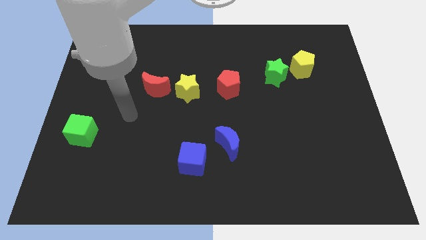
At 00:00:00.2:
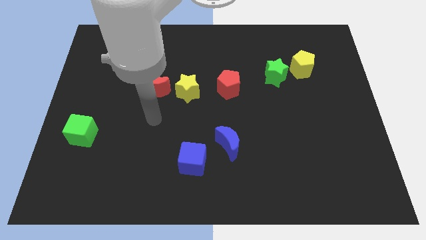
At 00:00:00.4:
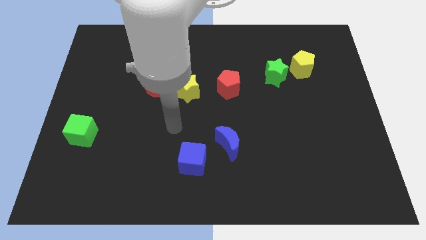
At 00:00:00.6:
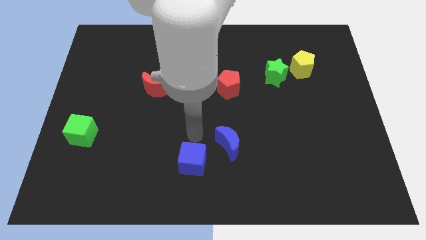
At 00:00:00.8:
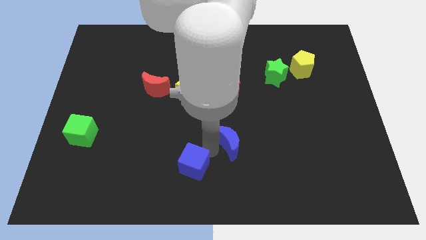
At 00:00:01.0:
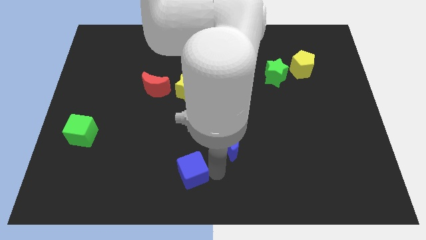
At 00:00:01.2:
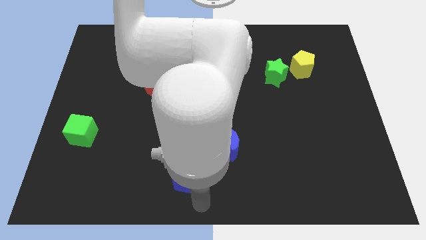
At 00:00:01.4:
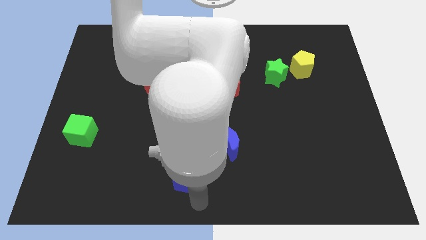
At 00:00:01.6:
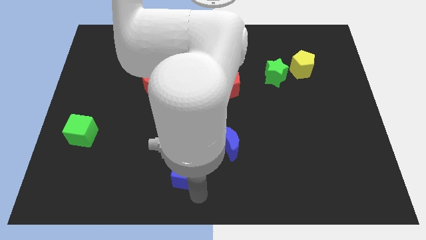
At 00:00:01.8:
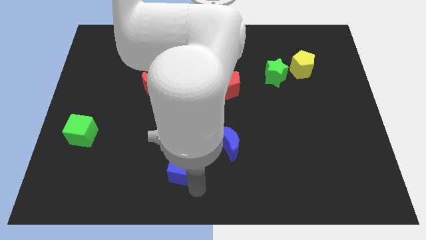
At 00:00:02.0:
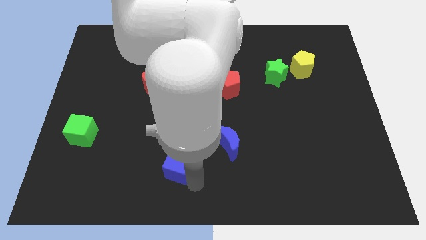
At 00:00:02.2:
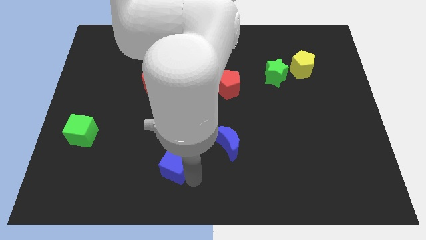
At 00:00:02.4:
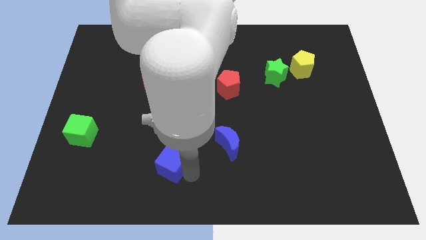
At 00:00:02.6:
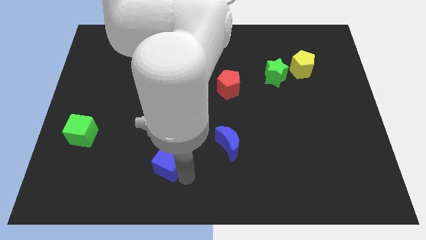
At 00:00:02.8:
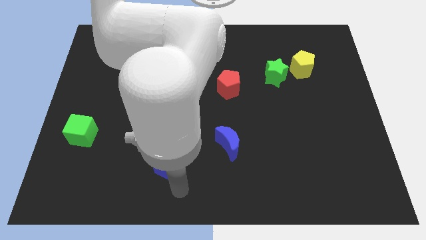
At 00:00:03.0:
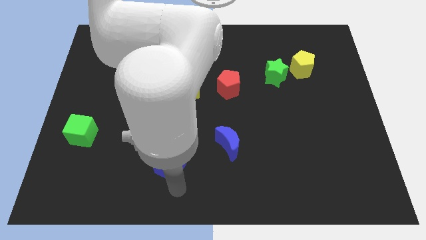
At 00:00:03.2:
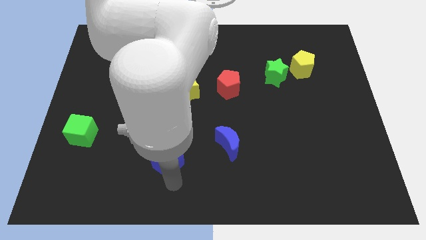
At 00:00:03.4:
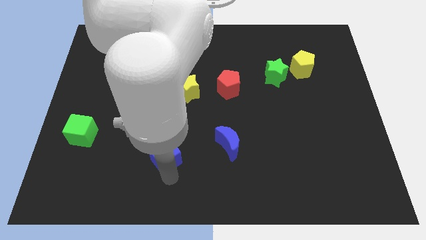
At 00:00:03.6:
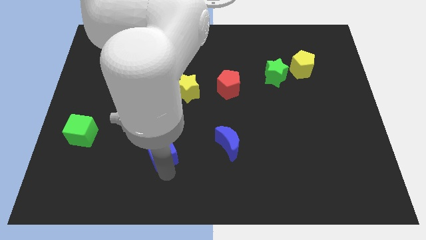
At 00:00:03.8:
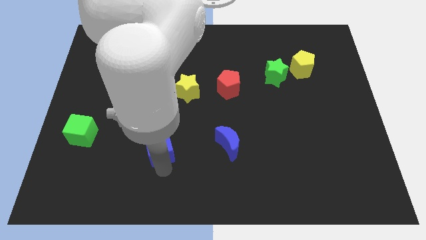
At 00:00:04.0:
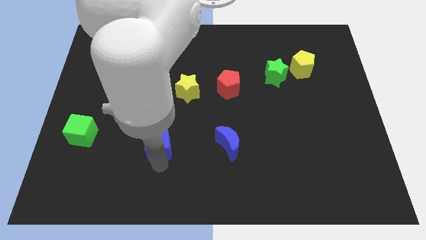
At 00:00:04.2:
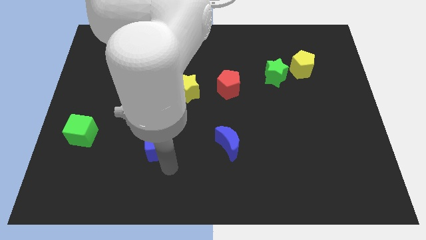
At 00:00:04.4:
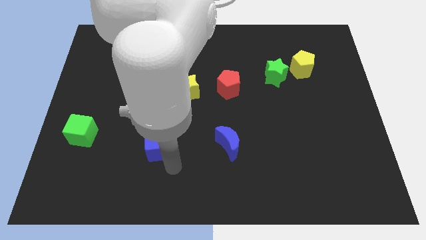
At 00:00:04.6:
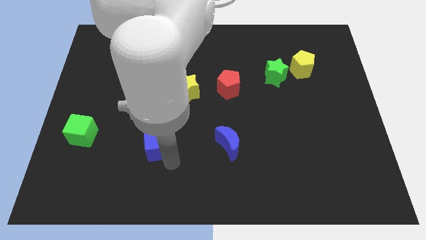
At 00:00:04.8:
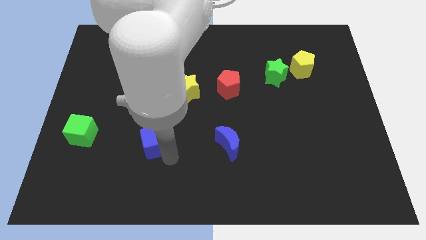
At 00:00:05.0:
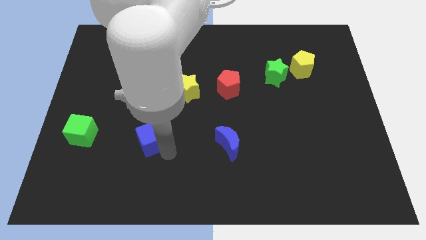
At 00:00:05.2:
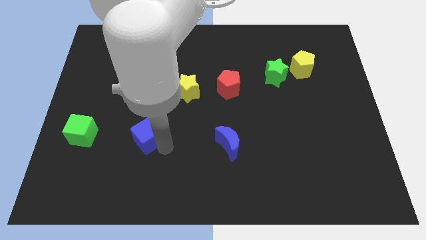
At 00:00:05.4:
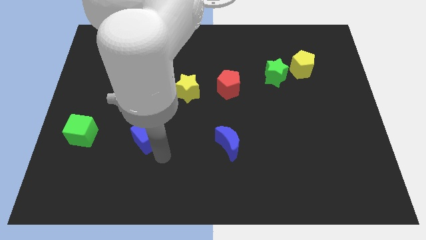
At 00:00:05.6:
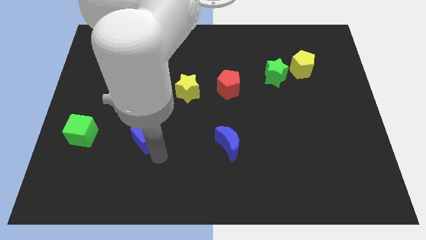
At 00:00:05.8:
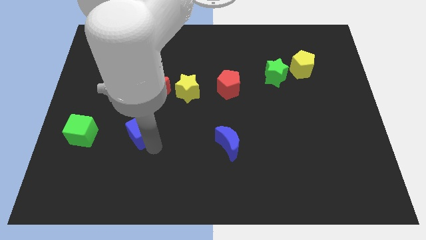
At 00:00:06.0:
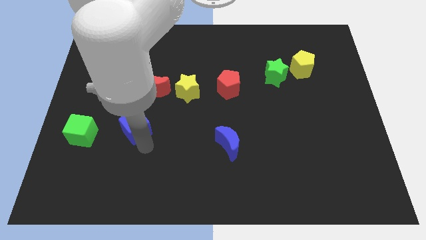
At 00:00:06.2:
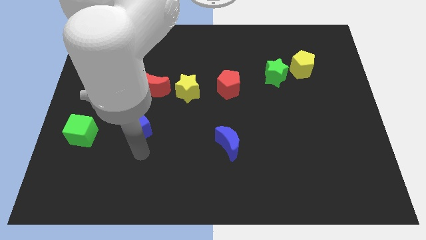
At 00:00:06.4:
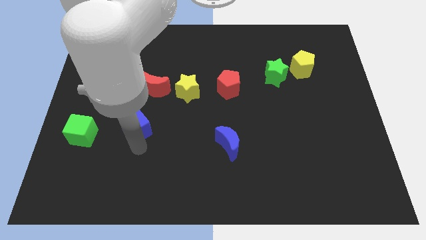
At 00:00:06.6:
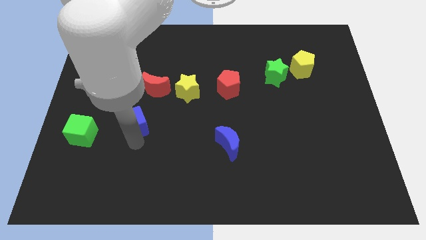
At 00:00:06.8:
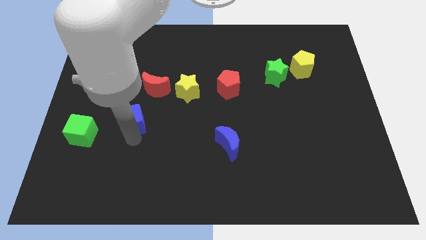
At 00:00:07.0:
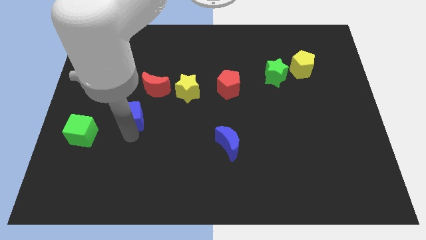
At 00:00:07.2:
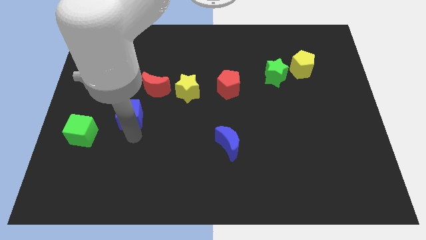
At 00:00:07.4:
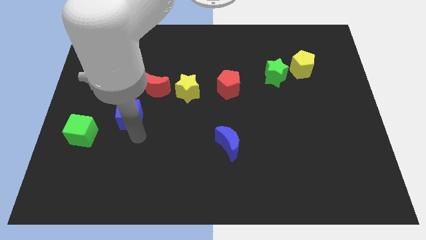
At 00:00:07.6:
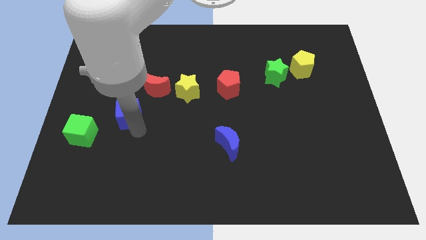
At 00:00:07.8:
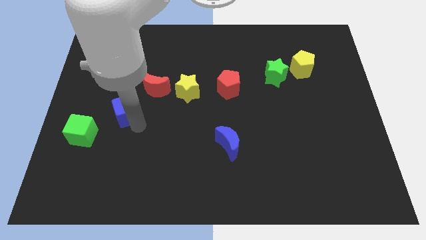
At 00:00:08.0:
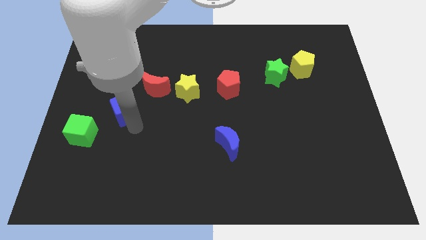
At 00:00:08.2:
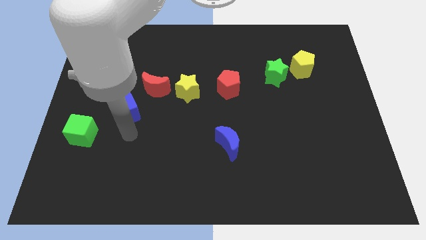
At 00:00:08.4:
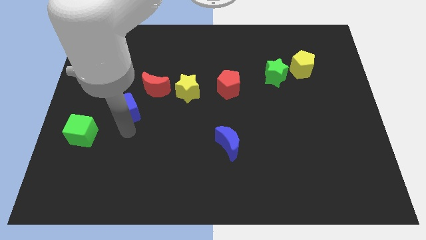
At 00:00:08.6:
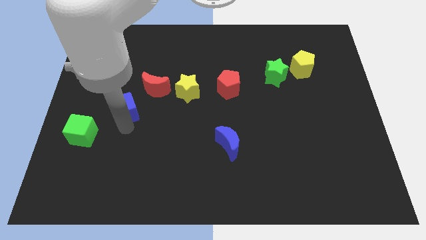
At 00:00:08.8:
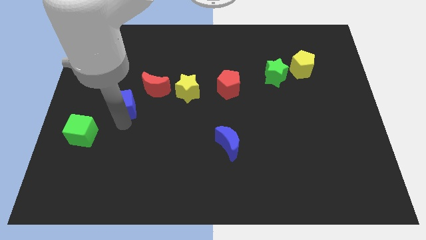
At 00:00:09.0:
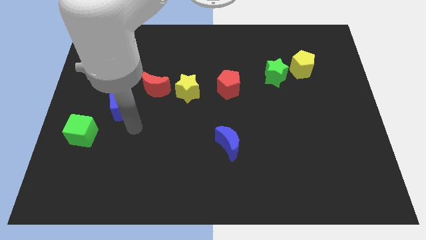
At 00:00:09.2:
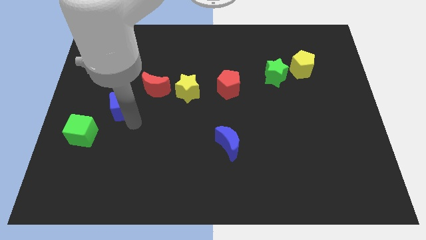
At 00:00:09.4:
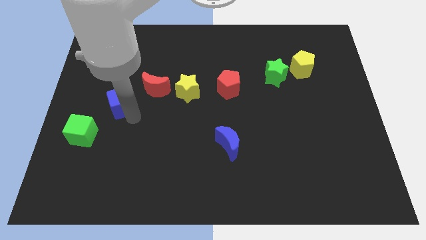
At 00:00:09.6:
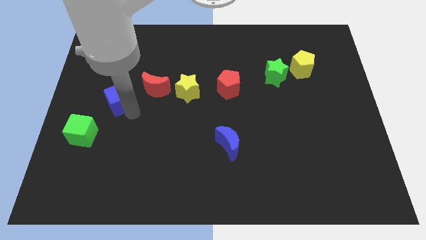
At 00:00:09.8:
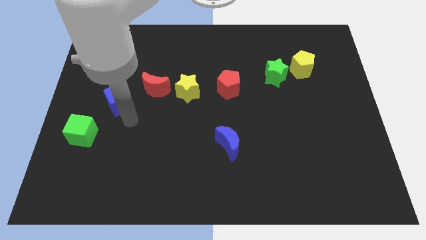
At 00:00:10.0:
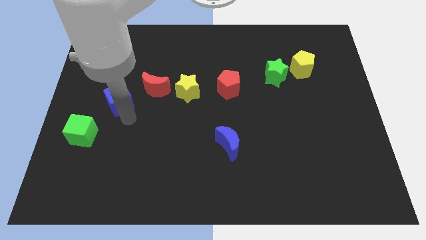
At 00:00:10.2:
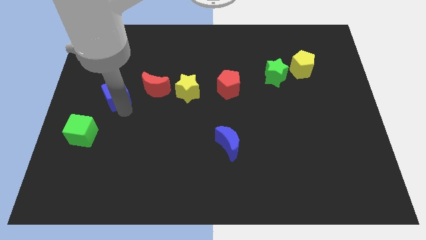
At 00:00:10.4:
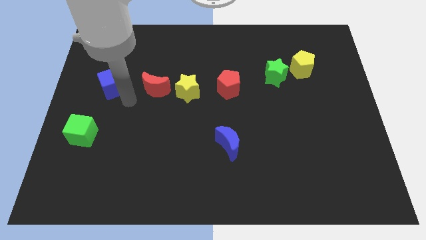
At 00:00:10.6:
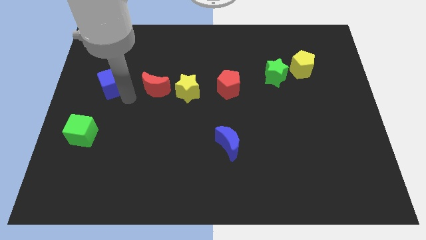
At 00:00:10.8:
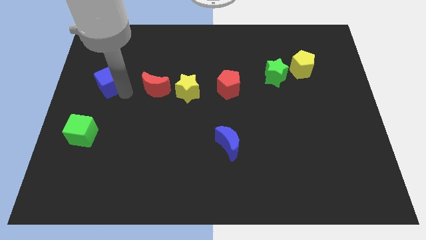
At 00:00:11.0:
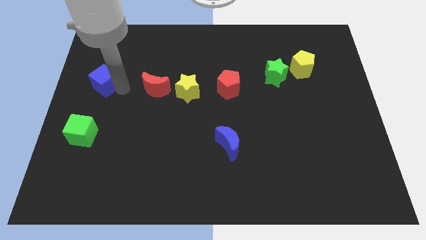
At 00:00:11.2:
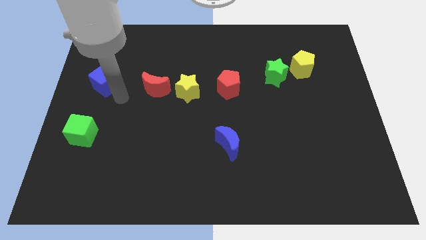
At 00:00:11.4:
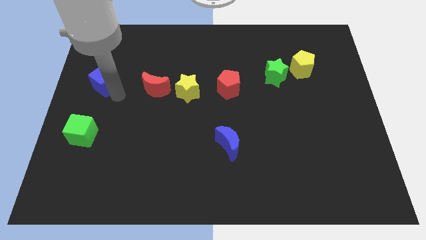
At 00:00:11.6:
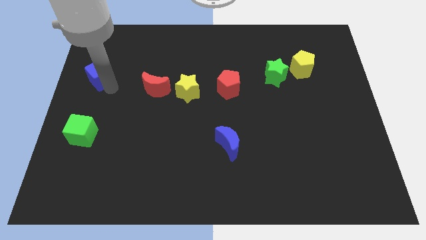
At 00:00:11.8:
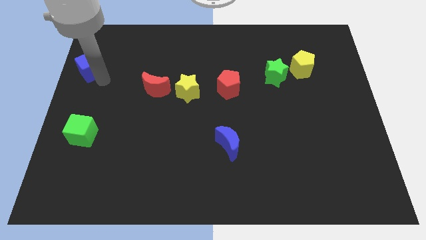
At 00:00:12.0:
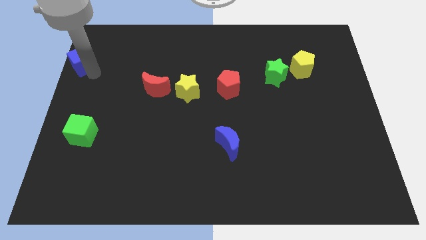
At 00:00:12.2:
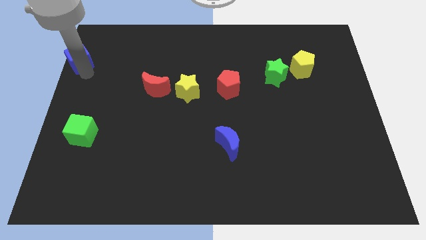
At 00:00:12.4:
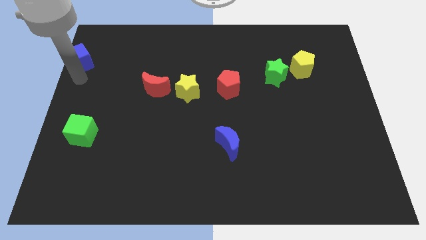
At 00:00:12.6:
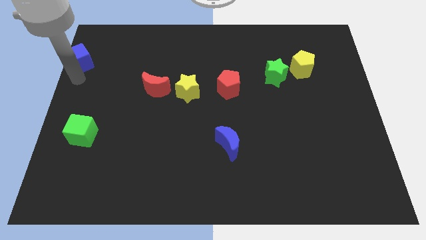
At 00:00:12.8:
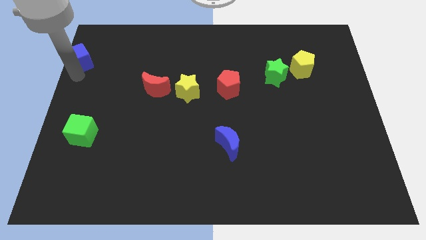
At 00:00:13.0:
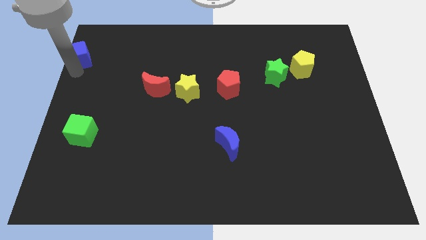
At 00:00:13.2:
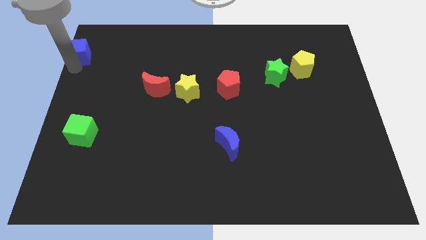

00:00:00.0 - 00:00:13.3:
push the blue cube to the upper left corner
